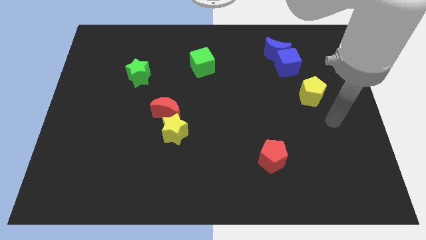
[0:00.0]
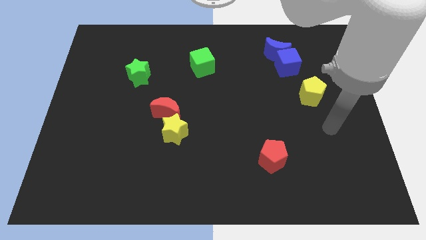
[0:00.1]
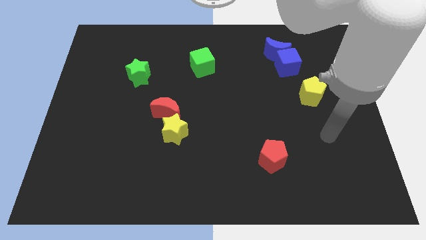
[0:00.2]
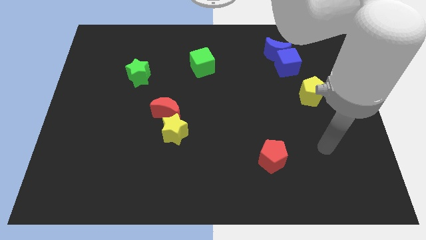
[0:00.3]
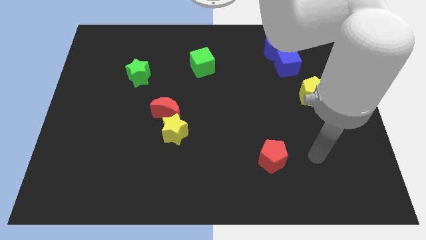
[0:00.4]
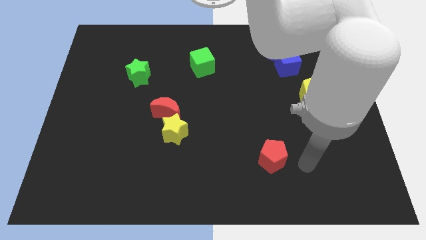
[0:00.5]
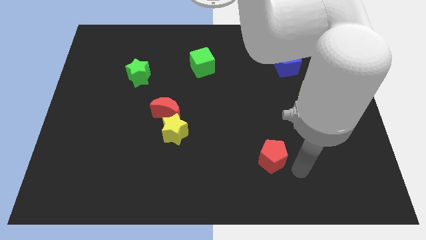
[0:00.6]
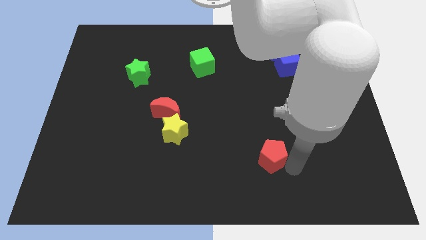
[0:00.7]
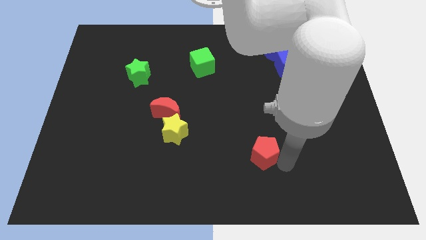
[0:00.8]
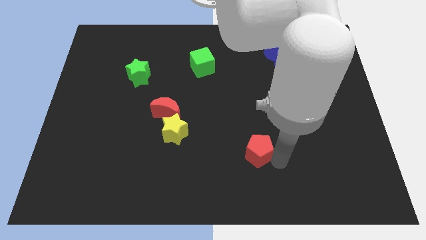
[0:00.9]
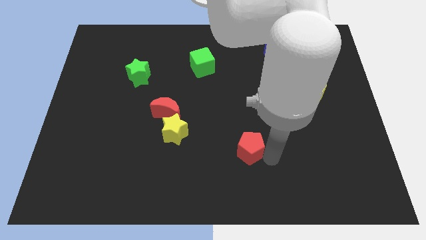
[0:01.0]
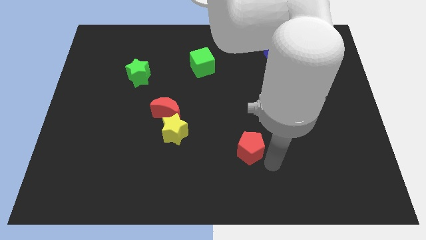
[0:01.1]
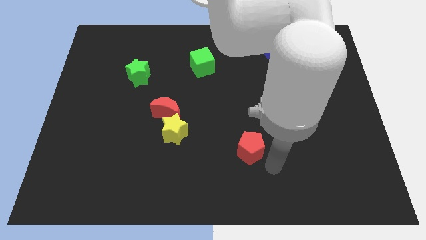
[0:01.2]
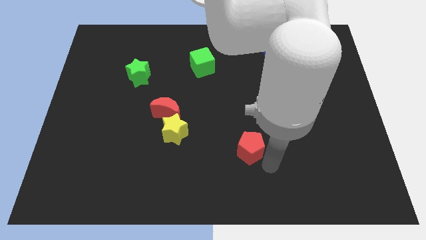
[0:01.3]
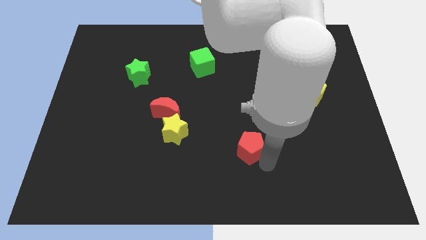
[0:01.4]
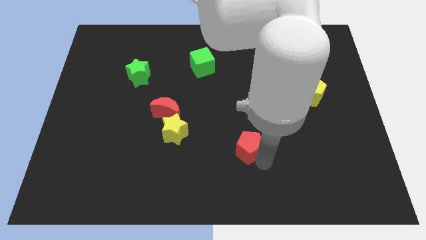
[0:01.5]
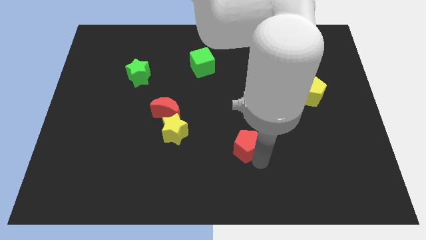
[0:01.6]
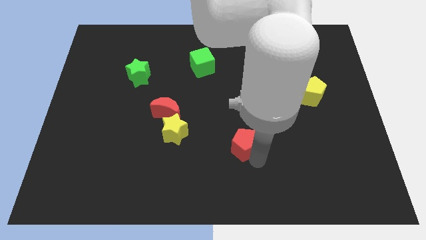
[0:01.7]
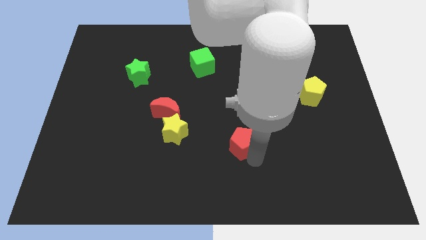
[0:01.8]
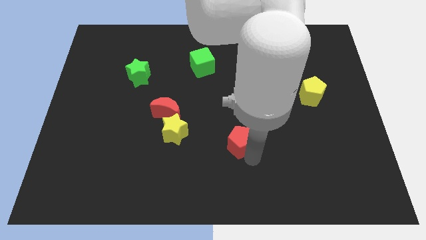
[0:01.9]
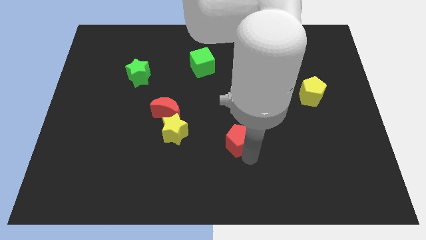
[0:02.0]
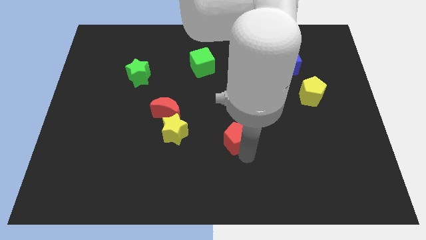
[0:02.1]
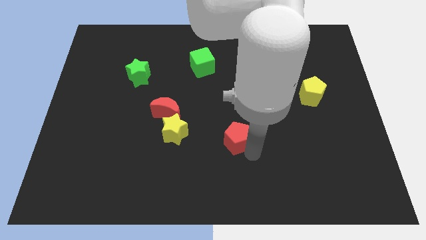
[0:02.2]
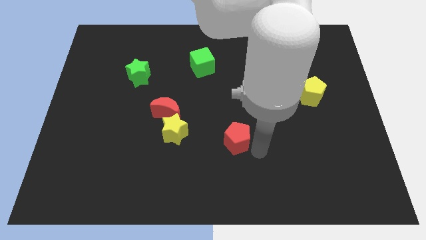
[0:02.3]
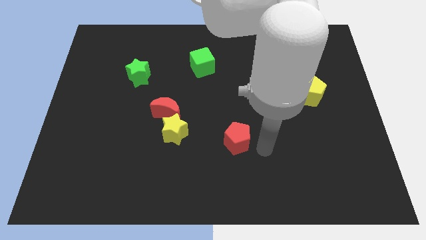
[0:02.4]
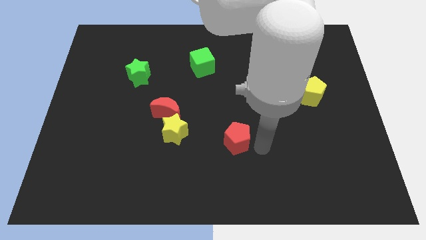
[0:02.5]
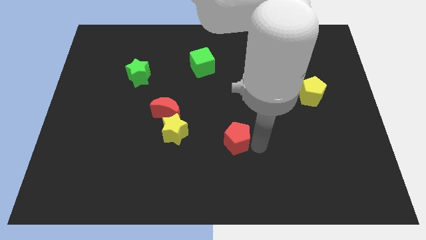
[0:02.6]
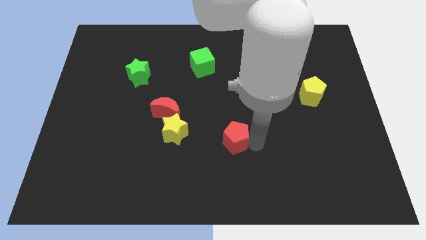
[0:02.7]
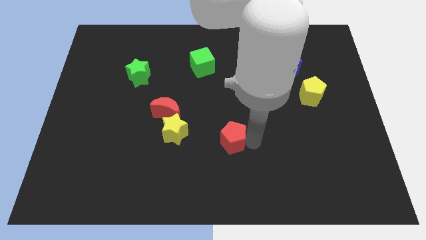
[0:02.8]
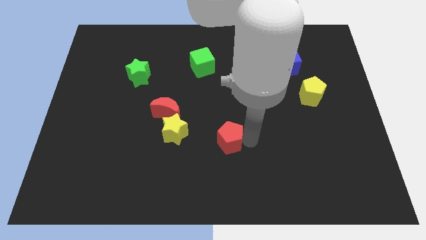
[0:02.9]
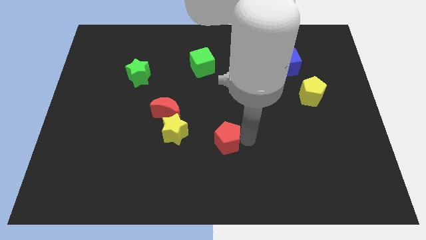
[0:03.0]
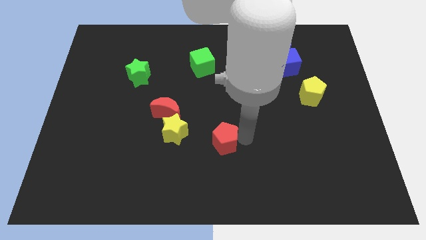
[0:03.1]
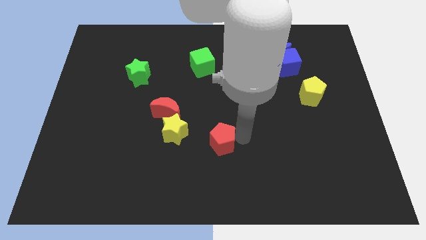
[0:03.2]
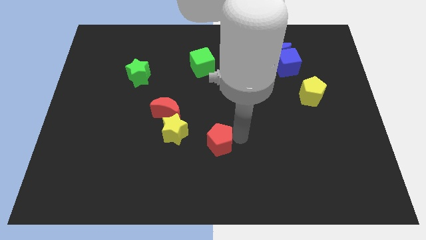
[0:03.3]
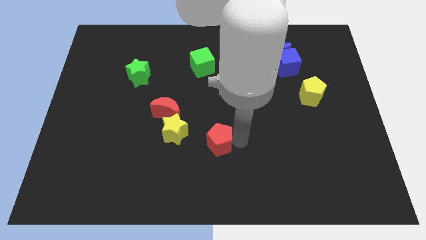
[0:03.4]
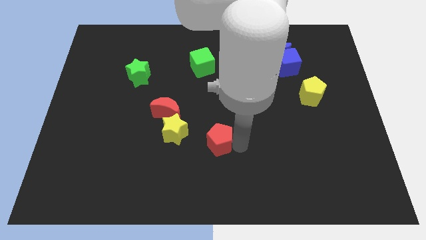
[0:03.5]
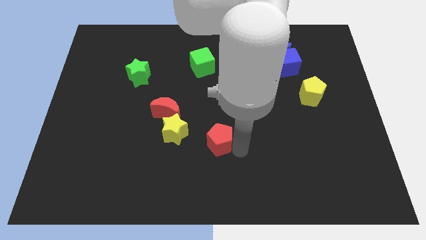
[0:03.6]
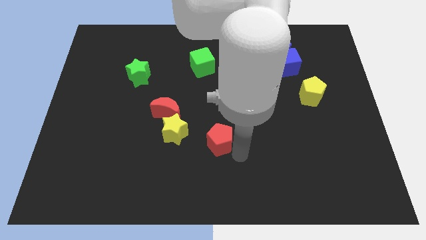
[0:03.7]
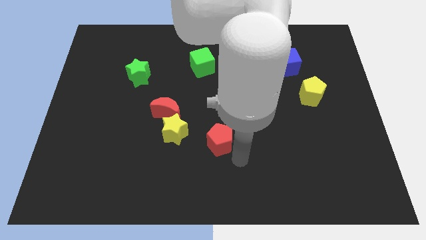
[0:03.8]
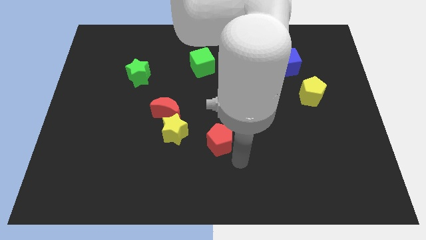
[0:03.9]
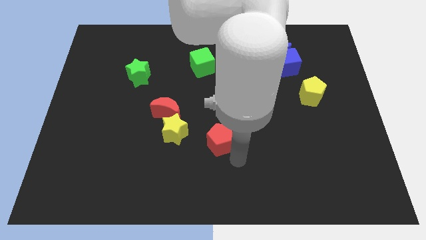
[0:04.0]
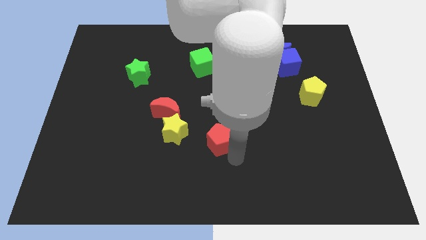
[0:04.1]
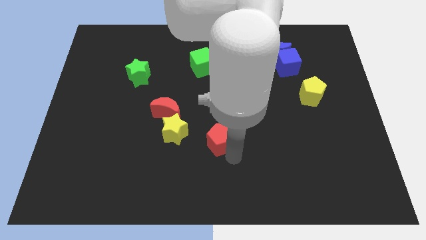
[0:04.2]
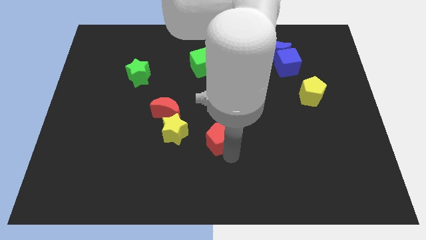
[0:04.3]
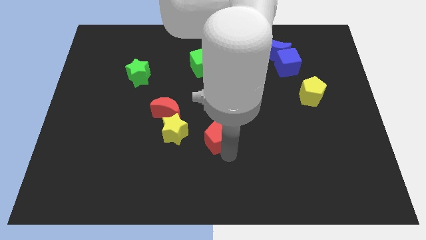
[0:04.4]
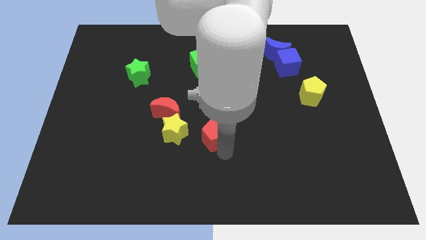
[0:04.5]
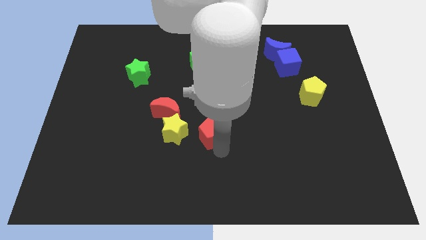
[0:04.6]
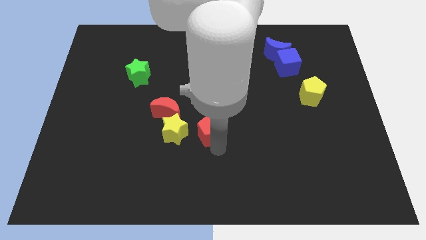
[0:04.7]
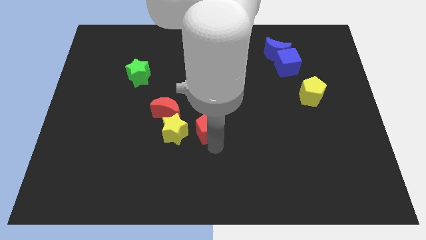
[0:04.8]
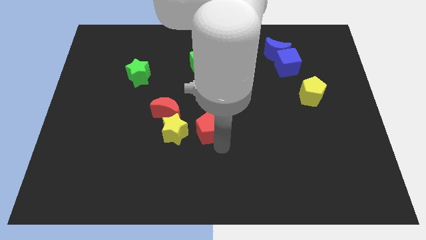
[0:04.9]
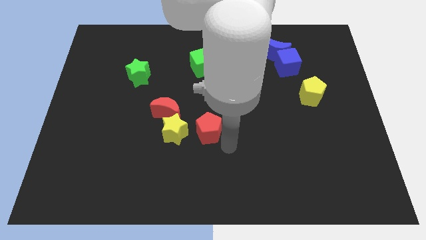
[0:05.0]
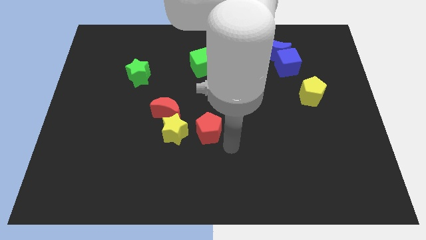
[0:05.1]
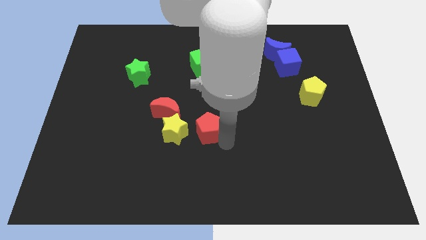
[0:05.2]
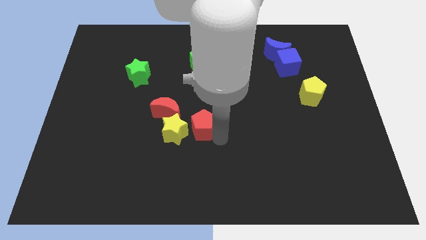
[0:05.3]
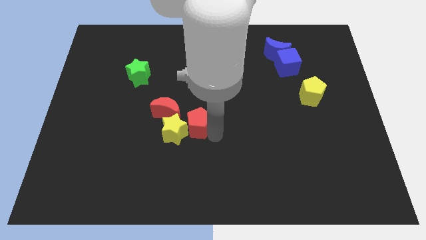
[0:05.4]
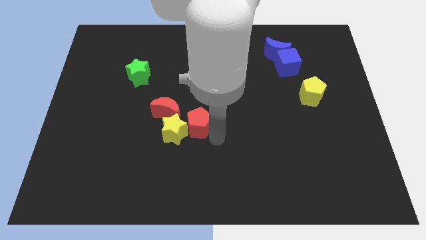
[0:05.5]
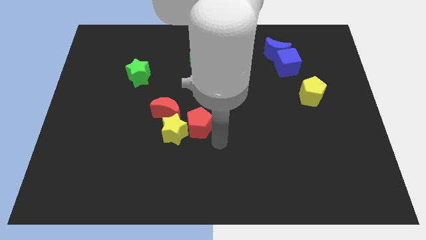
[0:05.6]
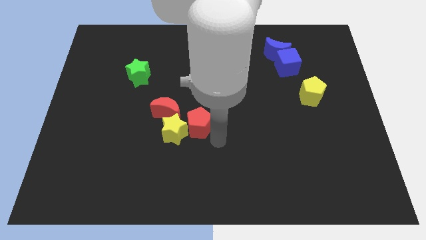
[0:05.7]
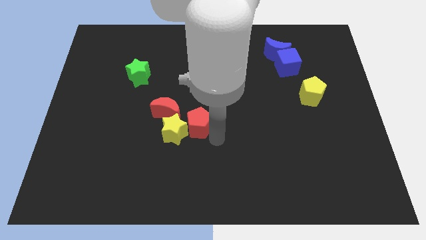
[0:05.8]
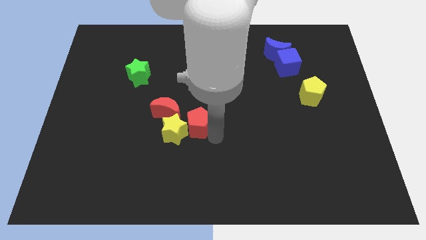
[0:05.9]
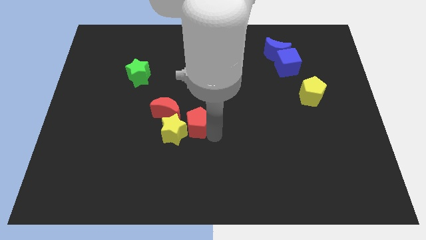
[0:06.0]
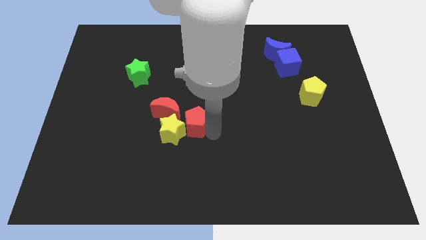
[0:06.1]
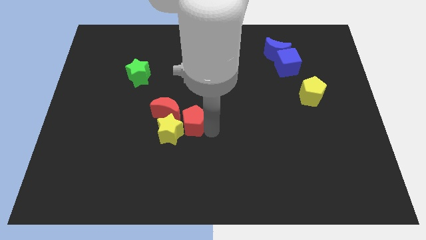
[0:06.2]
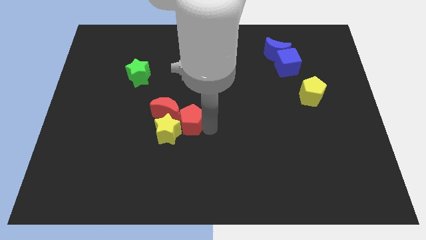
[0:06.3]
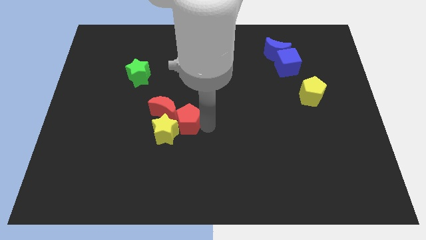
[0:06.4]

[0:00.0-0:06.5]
move the red pentagon to the red moon

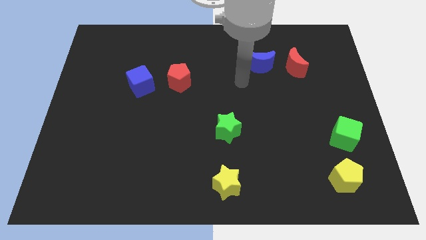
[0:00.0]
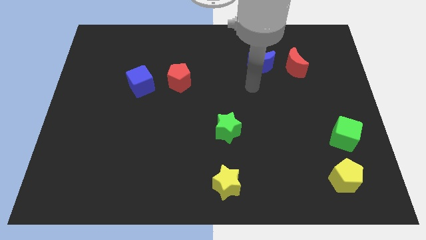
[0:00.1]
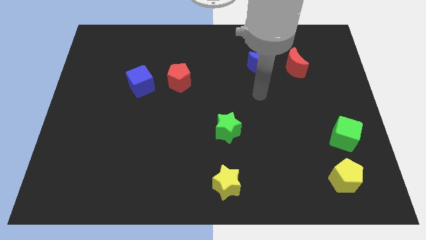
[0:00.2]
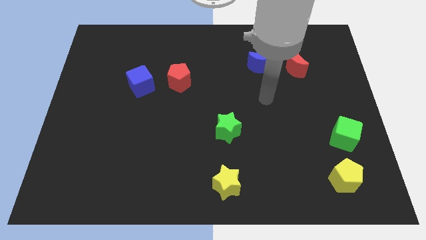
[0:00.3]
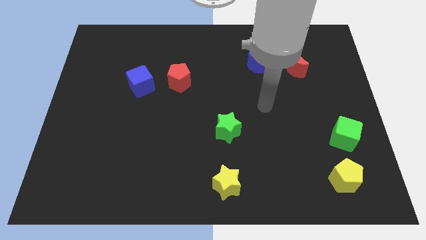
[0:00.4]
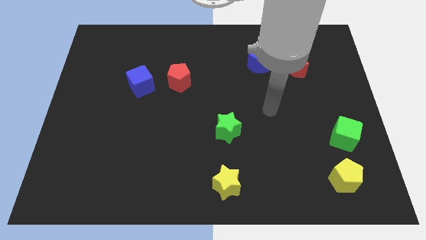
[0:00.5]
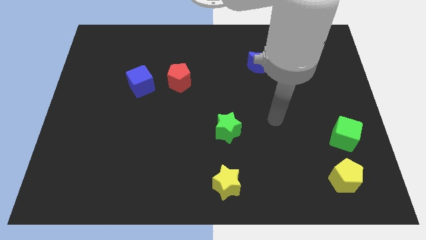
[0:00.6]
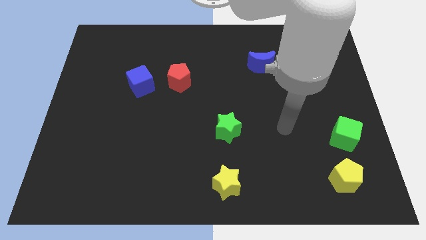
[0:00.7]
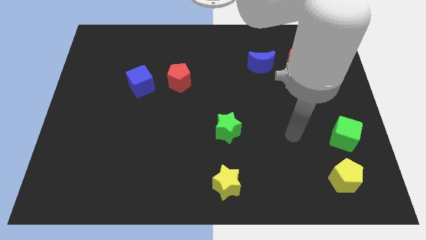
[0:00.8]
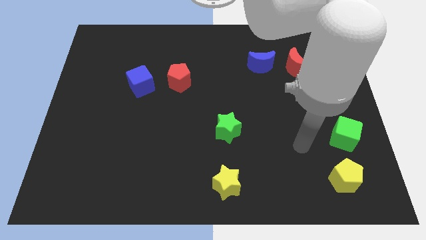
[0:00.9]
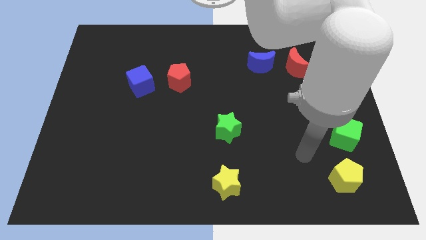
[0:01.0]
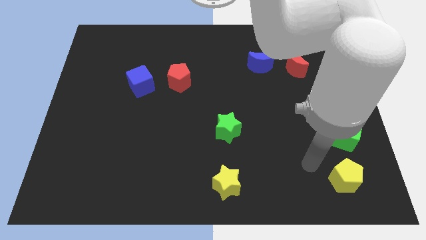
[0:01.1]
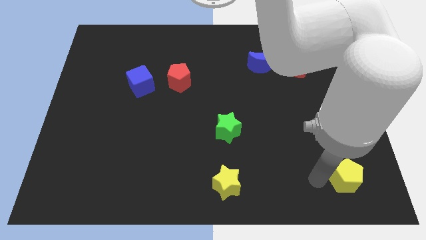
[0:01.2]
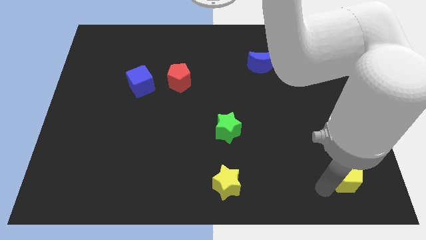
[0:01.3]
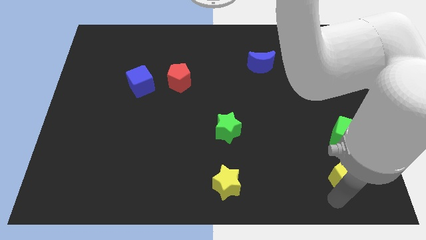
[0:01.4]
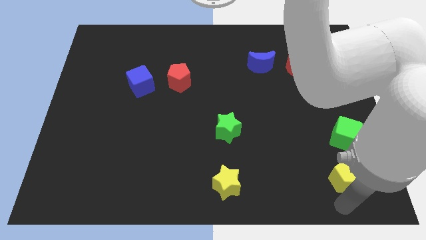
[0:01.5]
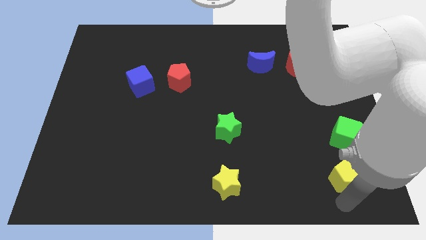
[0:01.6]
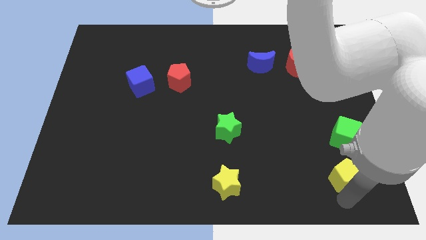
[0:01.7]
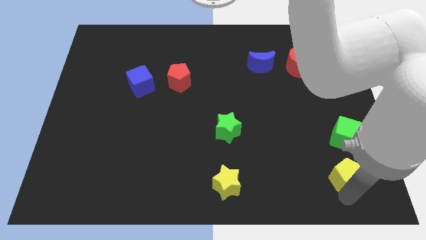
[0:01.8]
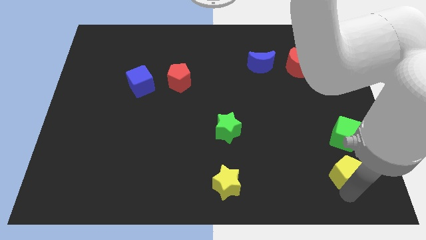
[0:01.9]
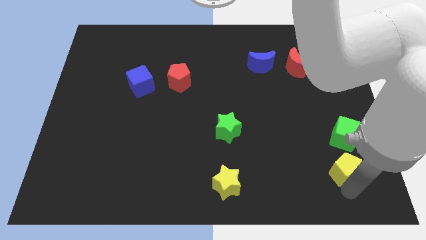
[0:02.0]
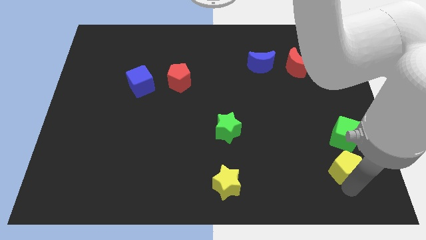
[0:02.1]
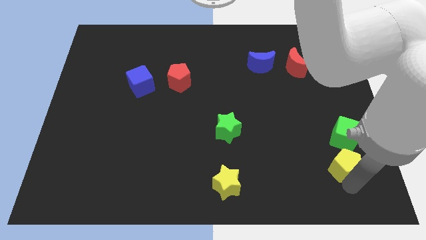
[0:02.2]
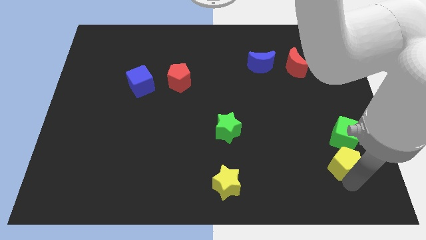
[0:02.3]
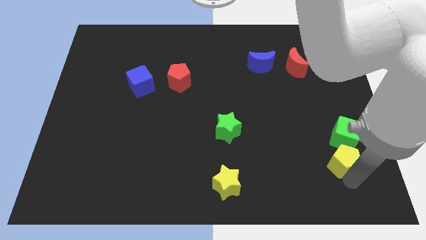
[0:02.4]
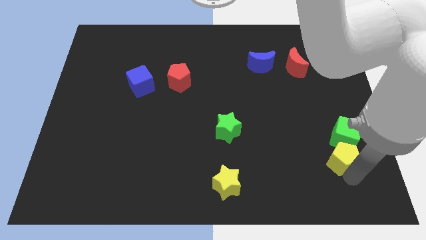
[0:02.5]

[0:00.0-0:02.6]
slide the yellow pentagon towards the green cube
